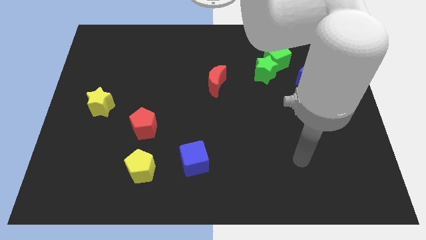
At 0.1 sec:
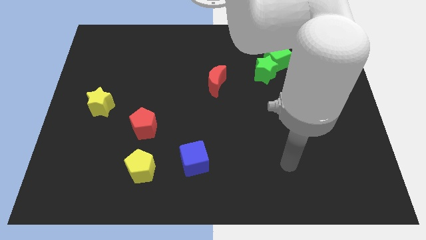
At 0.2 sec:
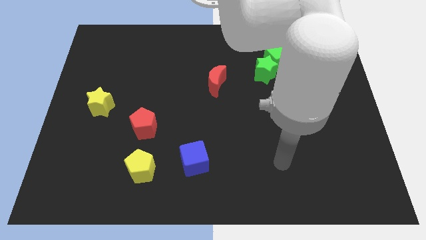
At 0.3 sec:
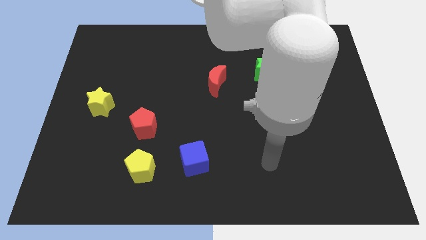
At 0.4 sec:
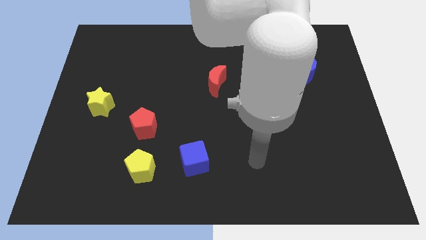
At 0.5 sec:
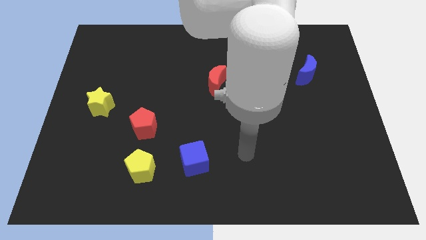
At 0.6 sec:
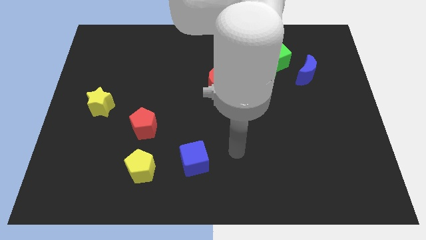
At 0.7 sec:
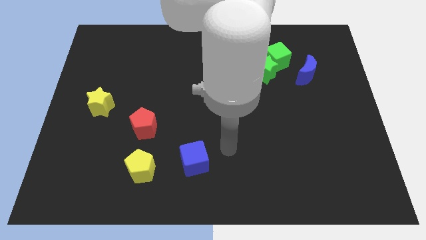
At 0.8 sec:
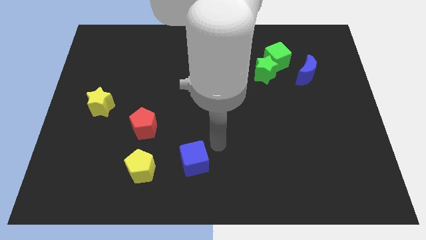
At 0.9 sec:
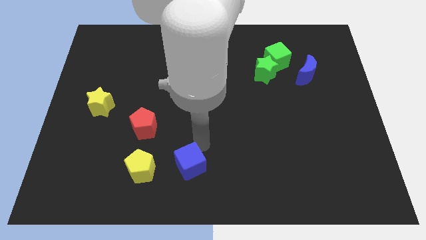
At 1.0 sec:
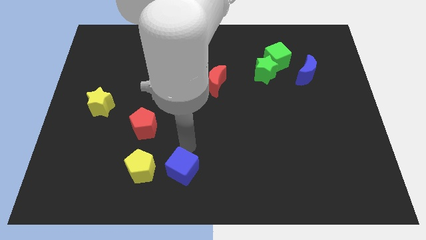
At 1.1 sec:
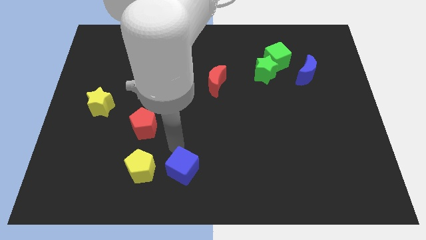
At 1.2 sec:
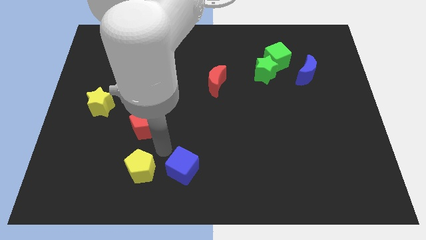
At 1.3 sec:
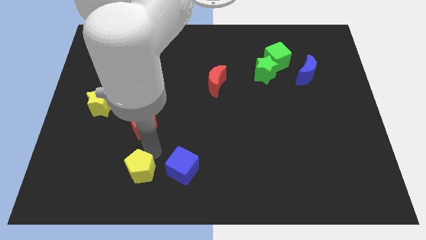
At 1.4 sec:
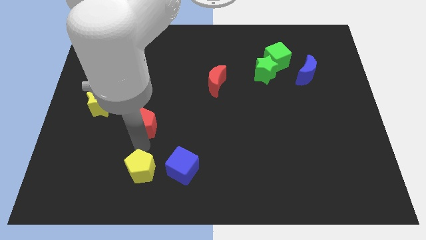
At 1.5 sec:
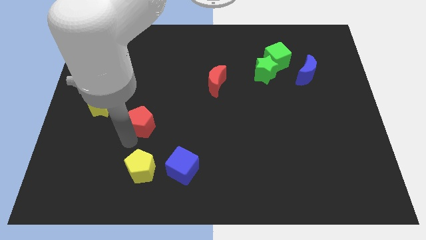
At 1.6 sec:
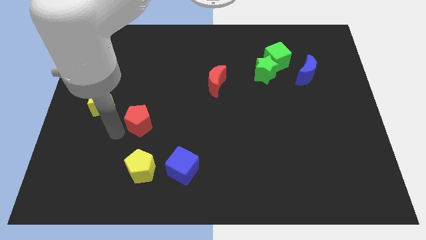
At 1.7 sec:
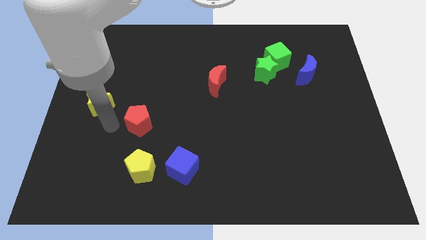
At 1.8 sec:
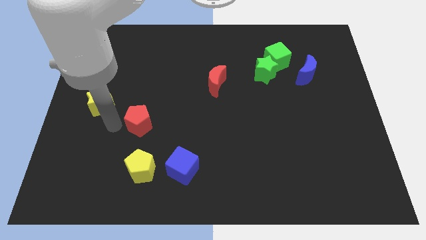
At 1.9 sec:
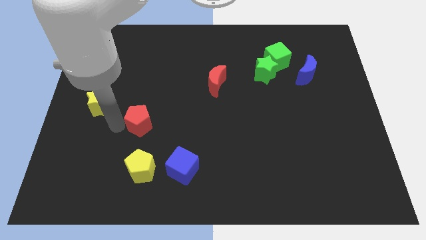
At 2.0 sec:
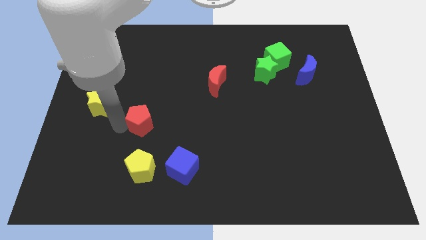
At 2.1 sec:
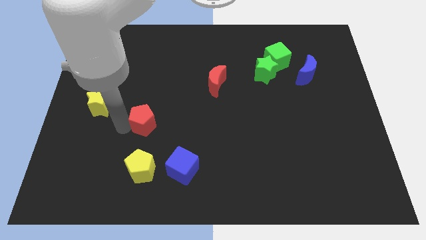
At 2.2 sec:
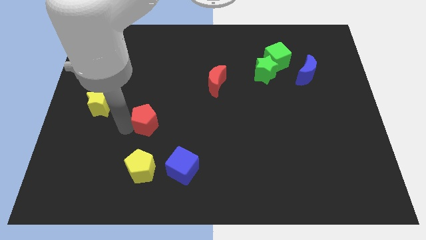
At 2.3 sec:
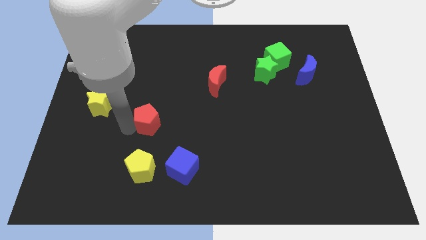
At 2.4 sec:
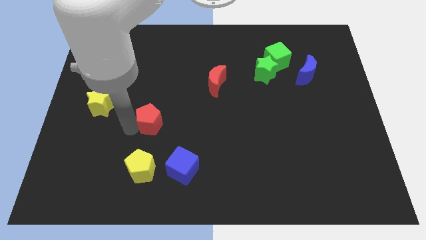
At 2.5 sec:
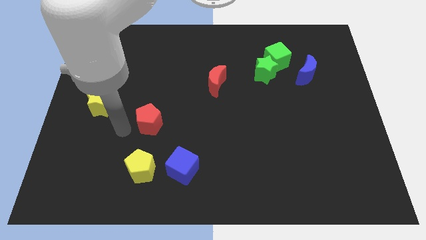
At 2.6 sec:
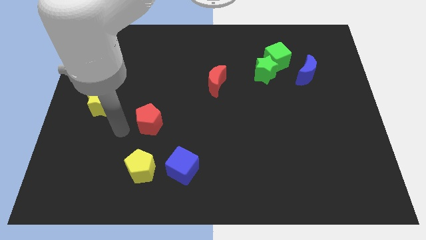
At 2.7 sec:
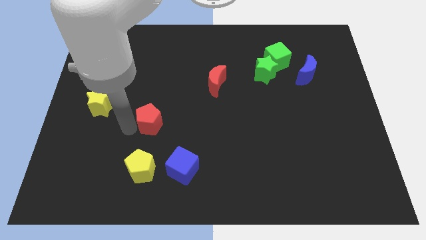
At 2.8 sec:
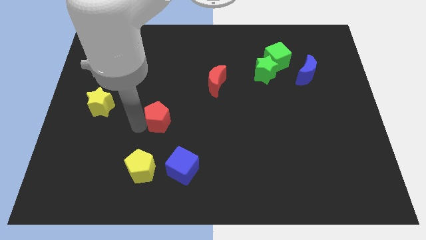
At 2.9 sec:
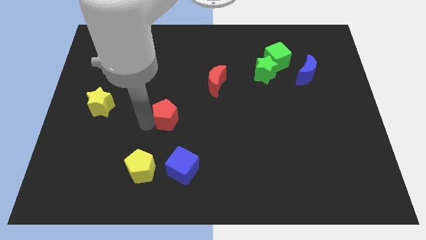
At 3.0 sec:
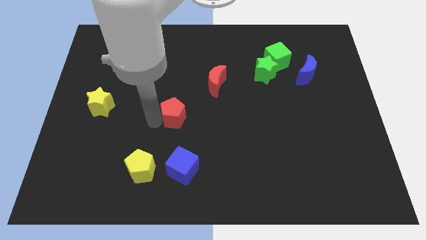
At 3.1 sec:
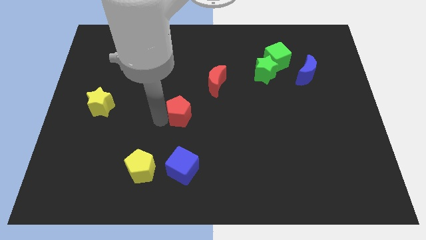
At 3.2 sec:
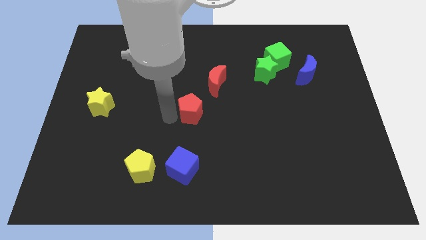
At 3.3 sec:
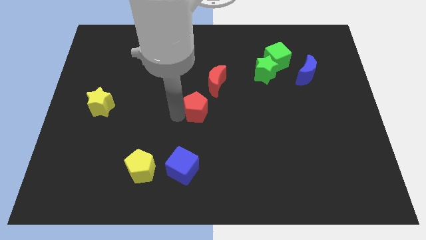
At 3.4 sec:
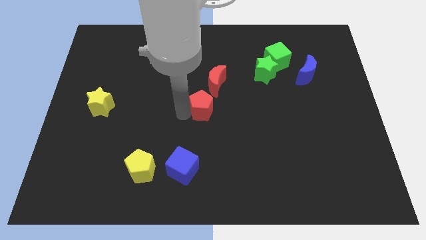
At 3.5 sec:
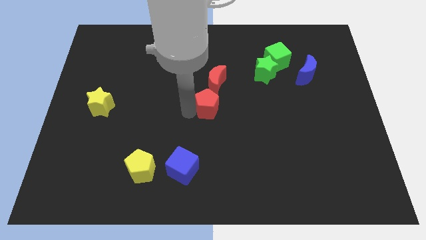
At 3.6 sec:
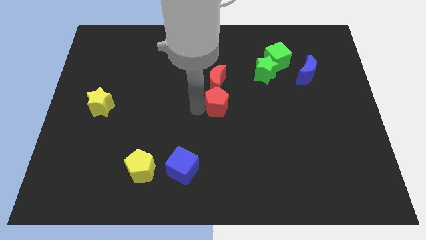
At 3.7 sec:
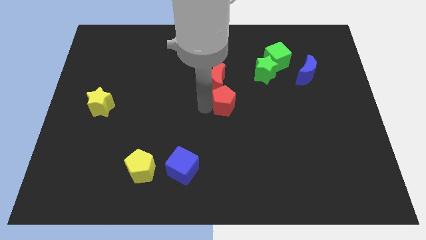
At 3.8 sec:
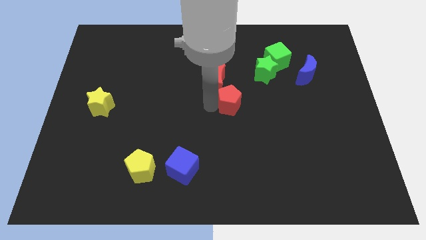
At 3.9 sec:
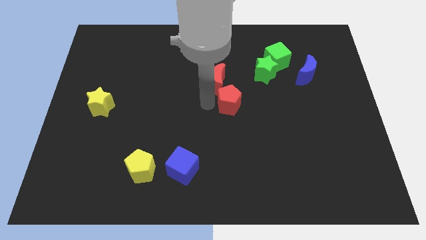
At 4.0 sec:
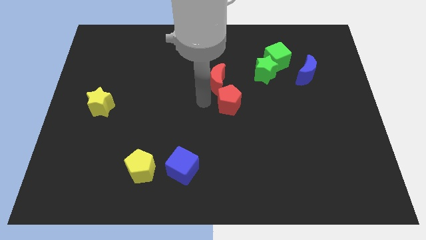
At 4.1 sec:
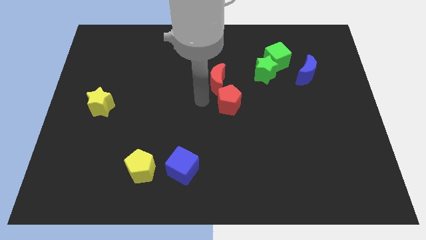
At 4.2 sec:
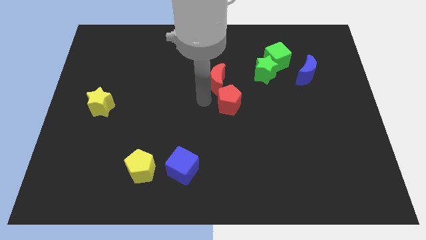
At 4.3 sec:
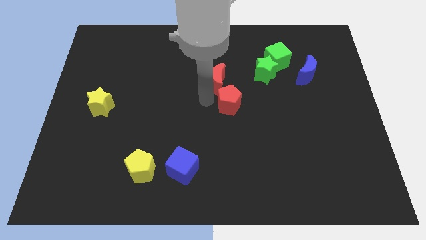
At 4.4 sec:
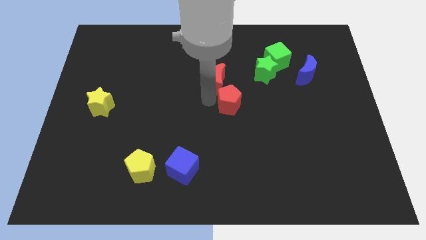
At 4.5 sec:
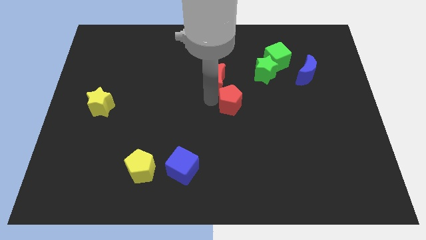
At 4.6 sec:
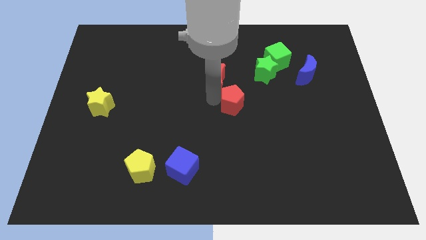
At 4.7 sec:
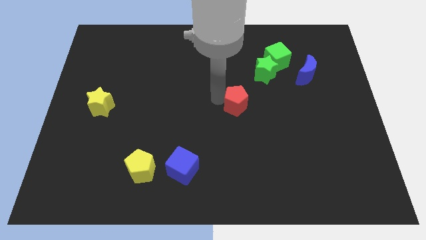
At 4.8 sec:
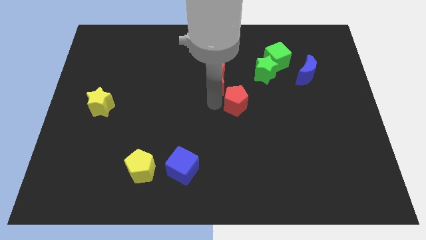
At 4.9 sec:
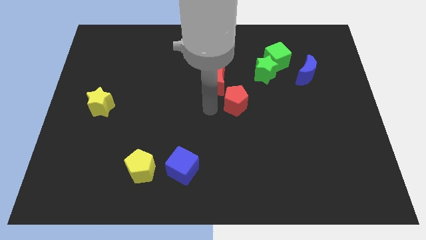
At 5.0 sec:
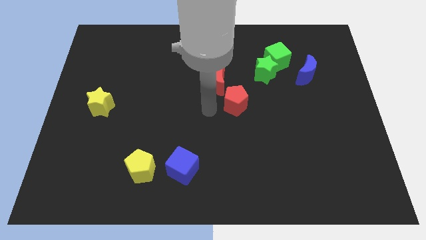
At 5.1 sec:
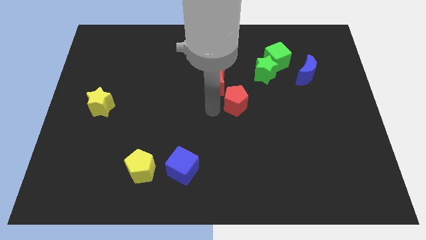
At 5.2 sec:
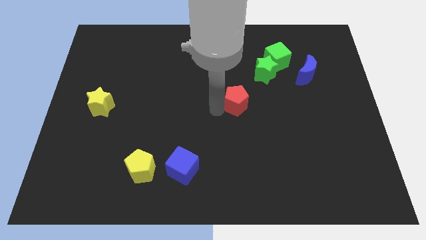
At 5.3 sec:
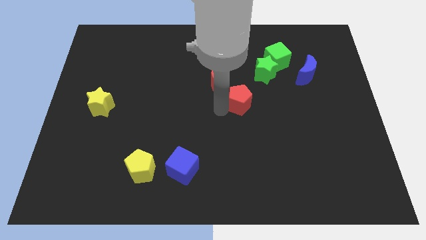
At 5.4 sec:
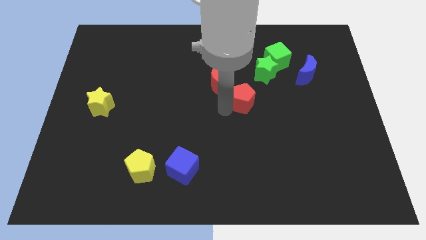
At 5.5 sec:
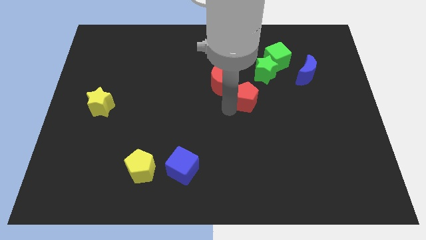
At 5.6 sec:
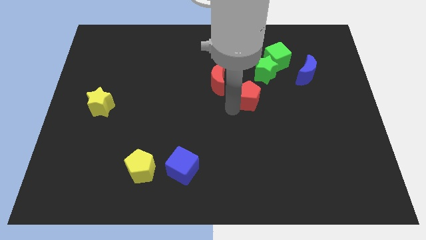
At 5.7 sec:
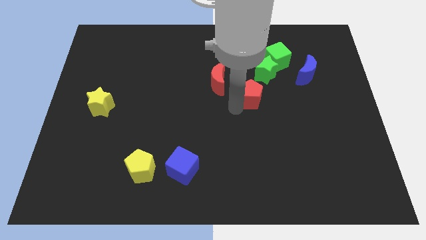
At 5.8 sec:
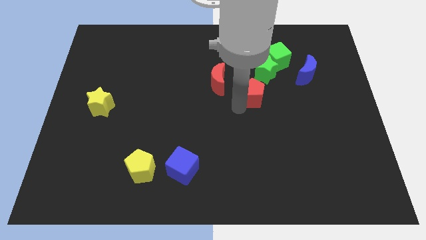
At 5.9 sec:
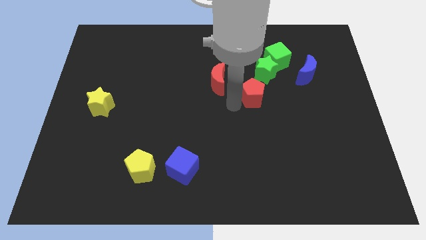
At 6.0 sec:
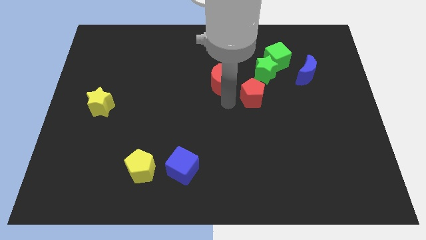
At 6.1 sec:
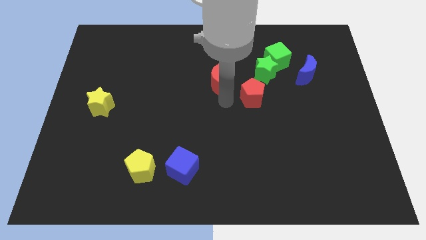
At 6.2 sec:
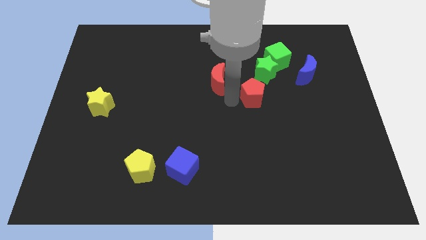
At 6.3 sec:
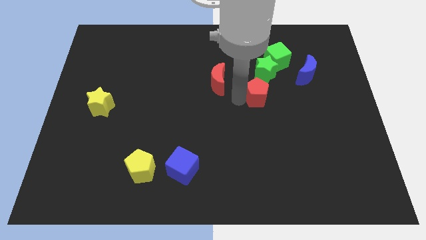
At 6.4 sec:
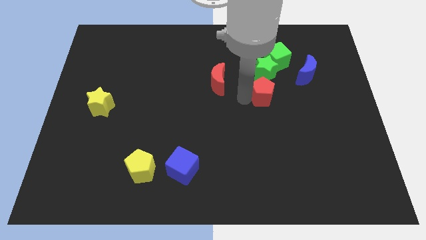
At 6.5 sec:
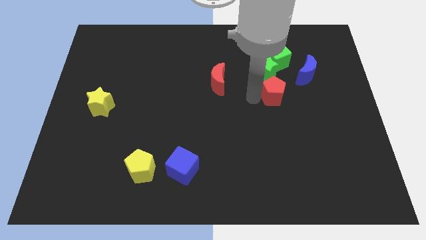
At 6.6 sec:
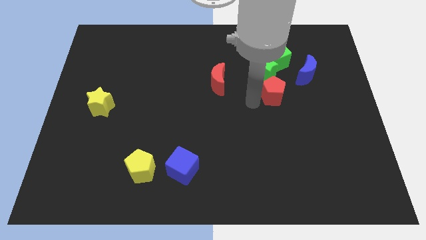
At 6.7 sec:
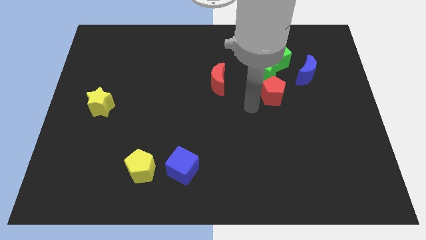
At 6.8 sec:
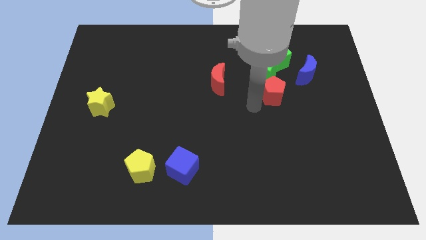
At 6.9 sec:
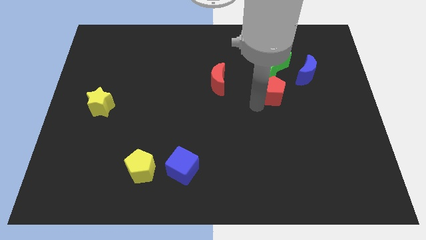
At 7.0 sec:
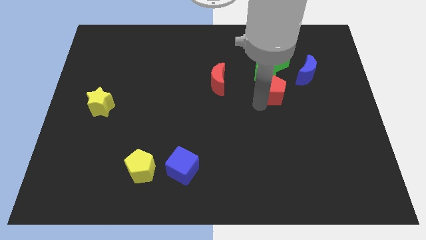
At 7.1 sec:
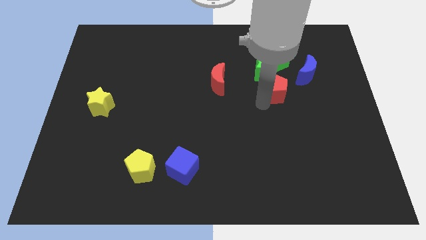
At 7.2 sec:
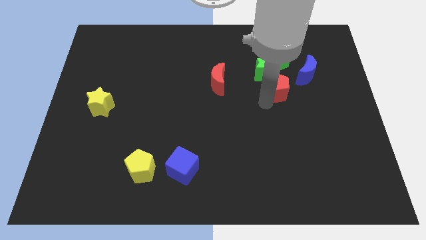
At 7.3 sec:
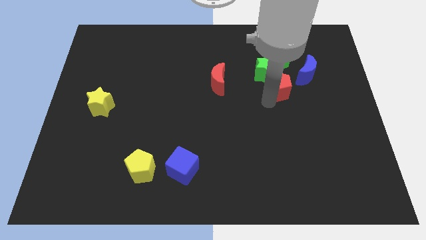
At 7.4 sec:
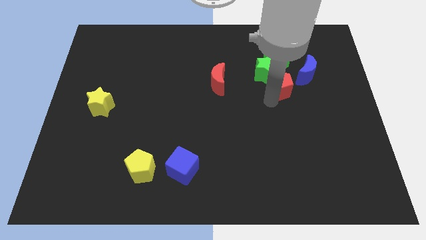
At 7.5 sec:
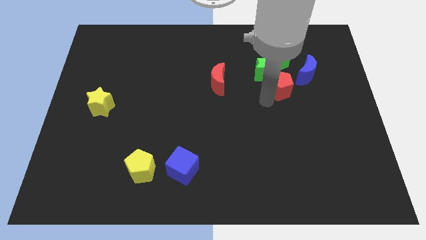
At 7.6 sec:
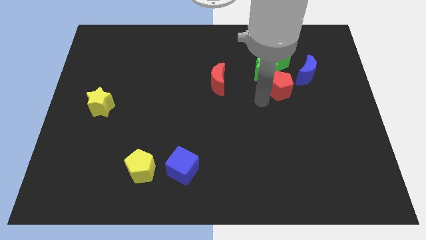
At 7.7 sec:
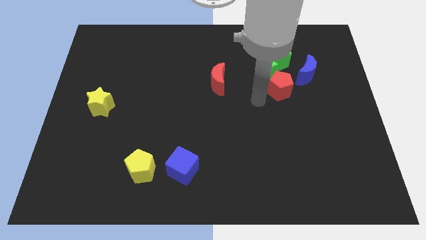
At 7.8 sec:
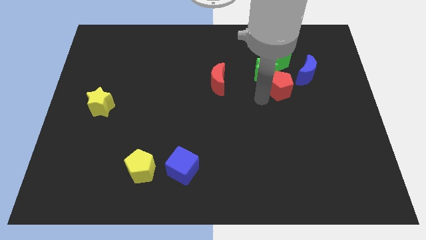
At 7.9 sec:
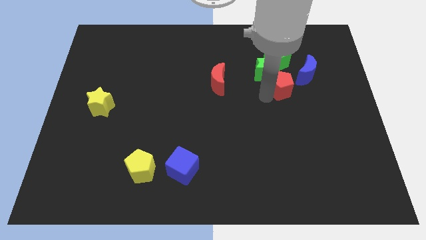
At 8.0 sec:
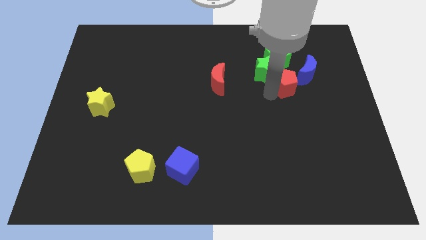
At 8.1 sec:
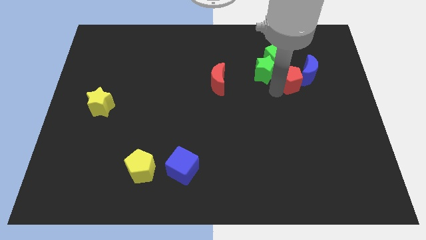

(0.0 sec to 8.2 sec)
slide the red pentagon towards the blue moon
